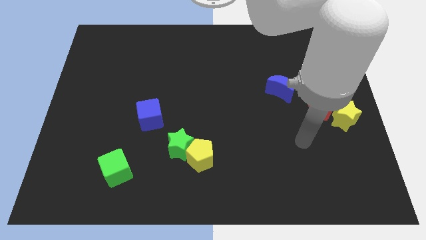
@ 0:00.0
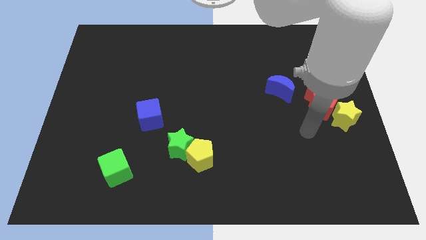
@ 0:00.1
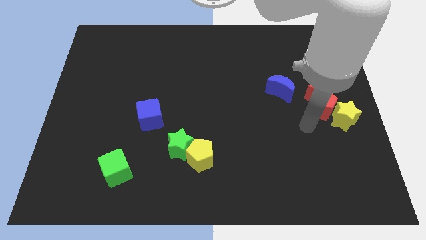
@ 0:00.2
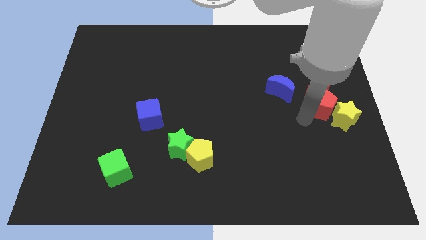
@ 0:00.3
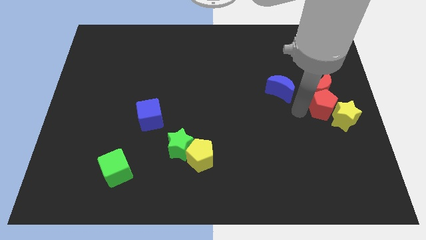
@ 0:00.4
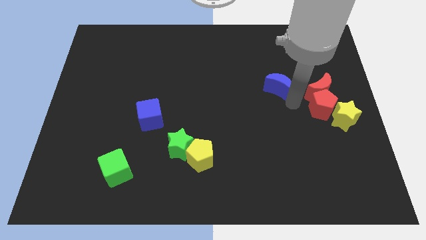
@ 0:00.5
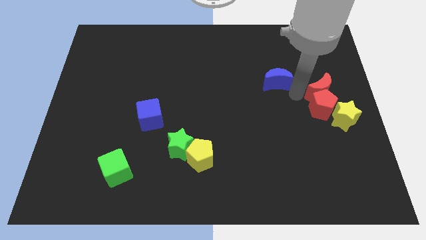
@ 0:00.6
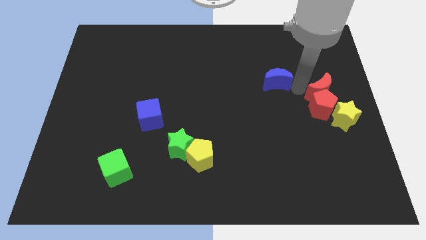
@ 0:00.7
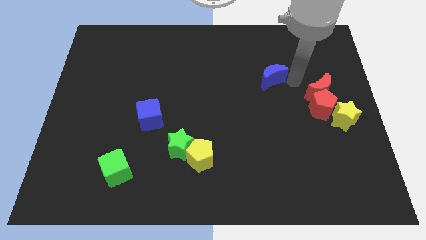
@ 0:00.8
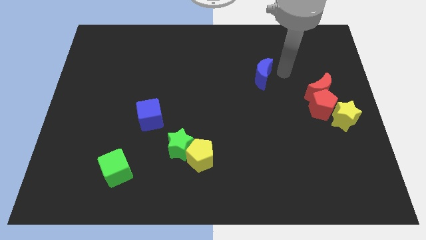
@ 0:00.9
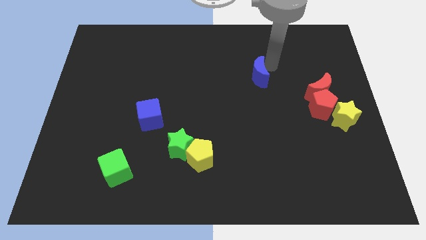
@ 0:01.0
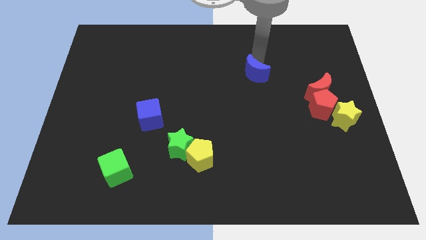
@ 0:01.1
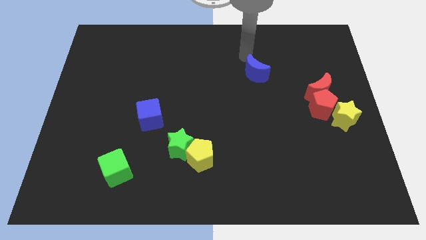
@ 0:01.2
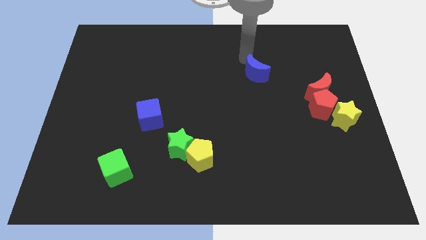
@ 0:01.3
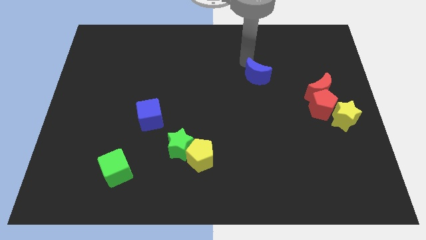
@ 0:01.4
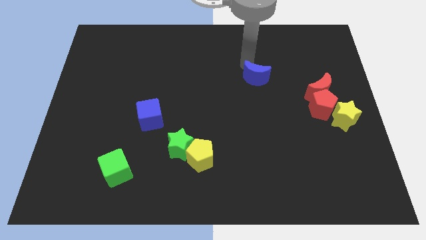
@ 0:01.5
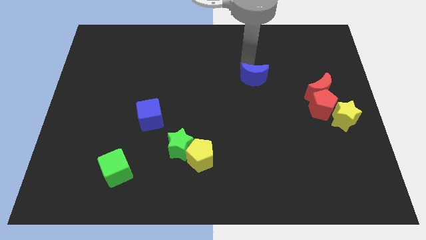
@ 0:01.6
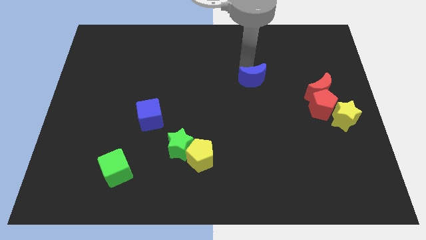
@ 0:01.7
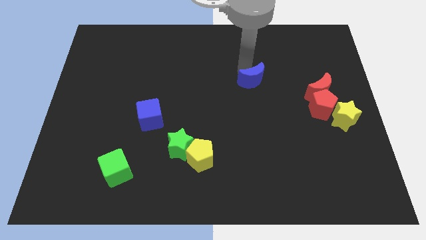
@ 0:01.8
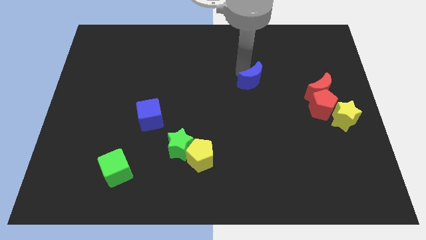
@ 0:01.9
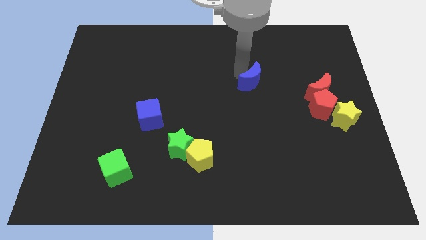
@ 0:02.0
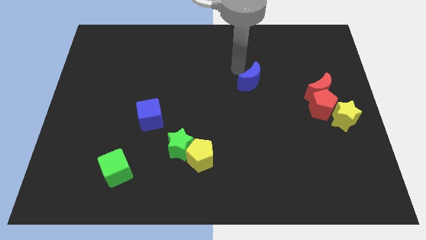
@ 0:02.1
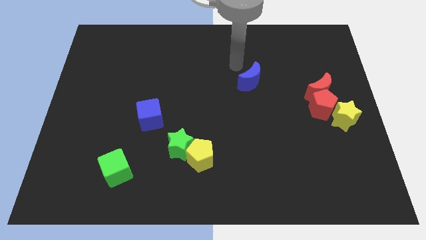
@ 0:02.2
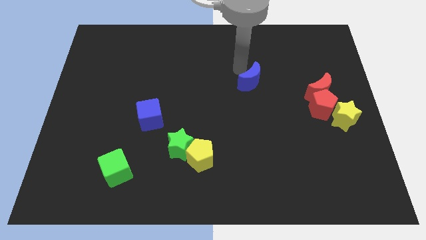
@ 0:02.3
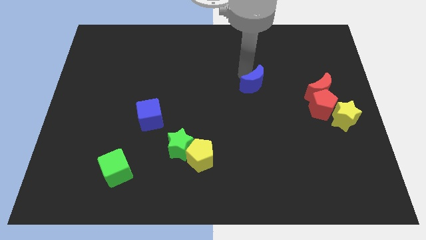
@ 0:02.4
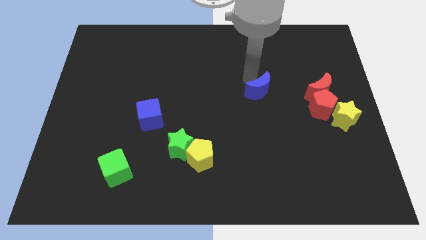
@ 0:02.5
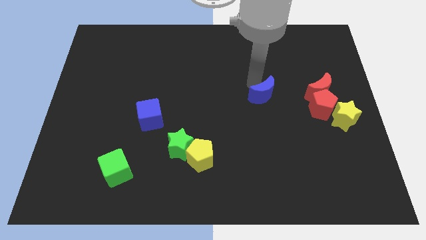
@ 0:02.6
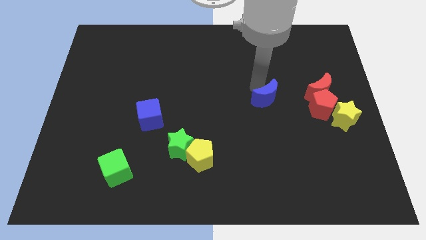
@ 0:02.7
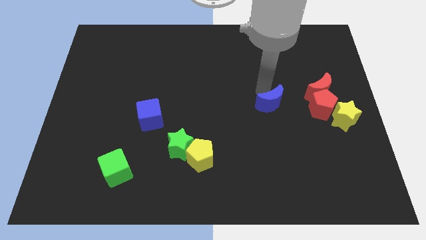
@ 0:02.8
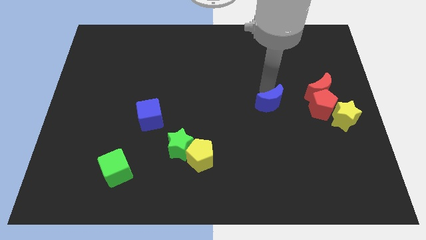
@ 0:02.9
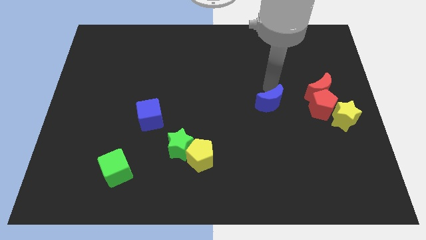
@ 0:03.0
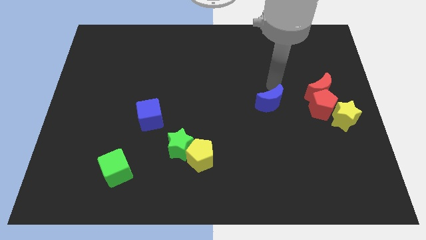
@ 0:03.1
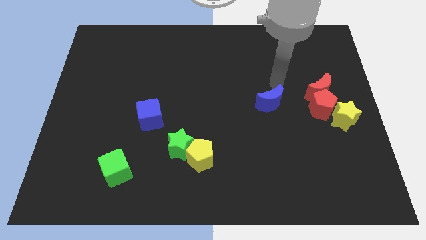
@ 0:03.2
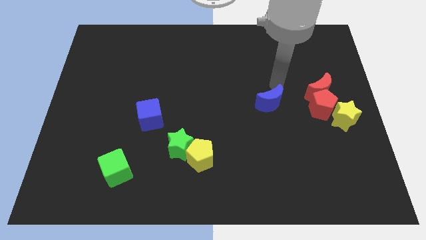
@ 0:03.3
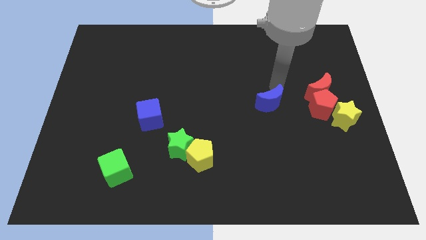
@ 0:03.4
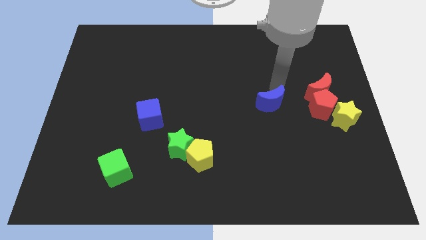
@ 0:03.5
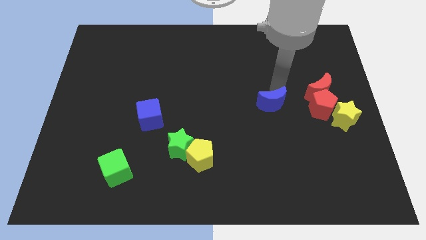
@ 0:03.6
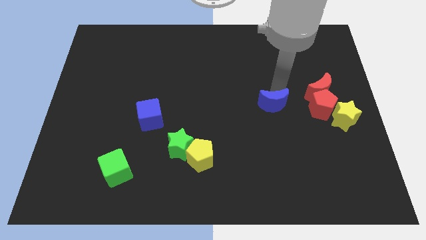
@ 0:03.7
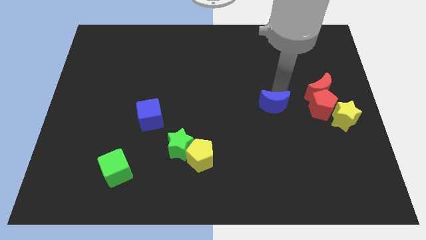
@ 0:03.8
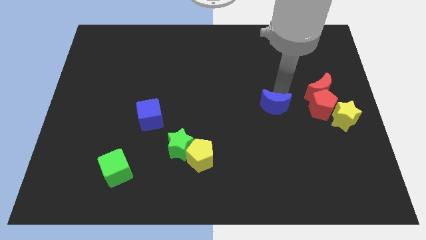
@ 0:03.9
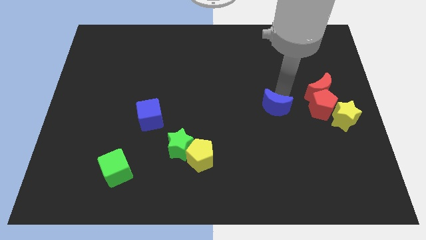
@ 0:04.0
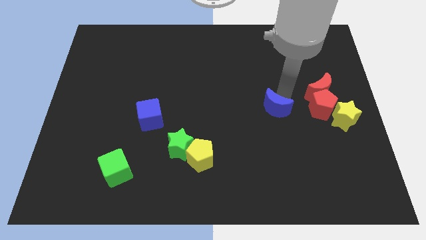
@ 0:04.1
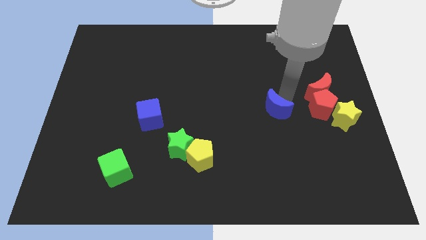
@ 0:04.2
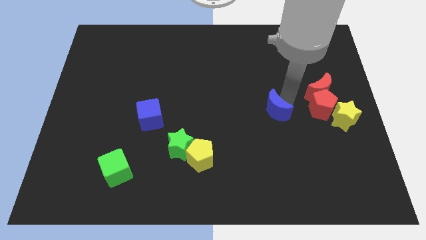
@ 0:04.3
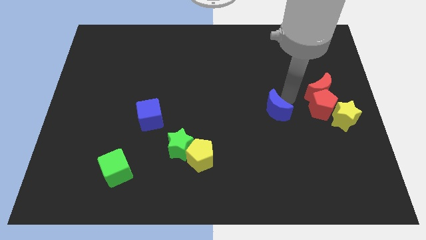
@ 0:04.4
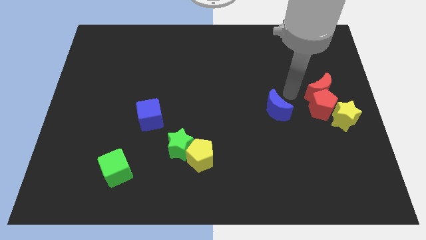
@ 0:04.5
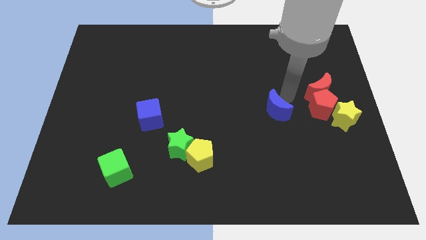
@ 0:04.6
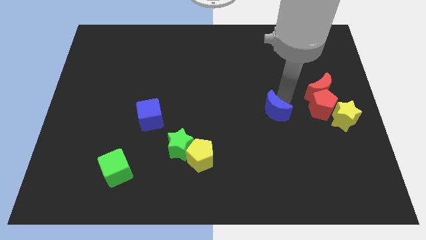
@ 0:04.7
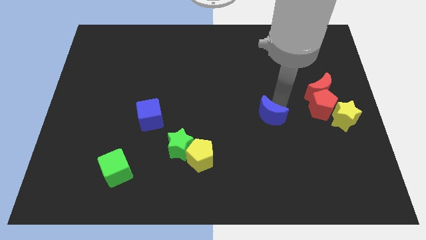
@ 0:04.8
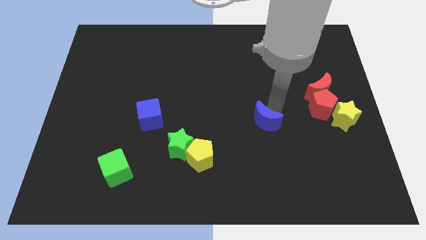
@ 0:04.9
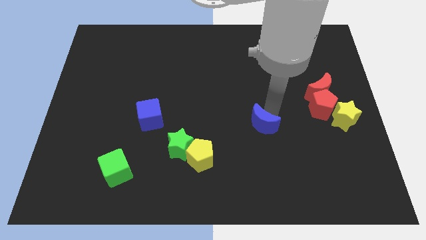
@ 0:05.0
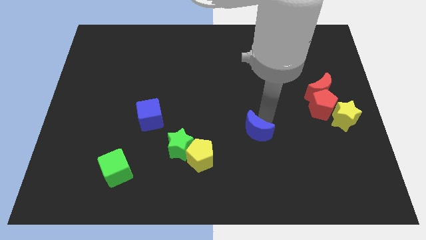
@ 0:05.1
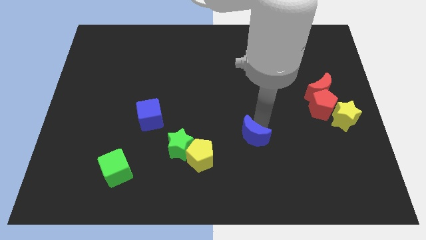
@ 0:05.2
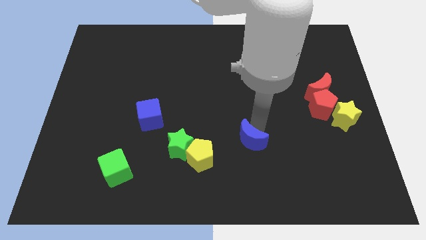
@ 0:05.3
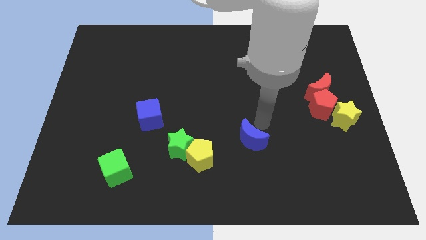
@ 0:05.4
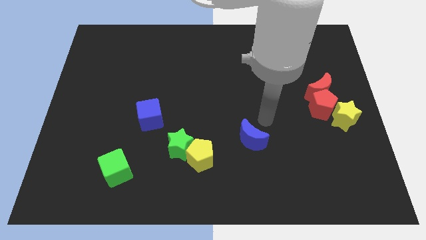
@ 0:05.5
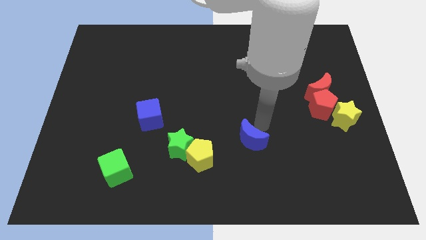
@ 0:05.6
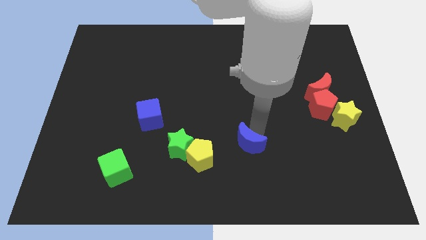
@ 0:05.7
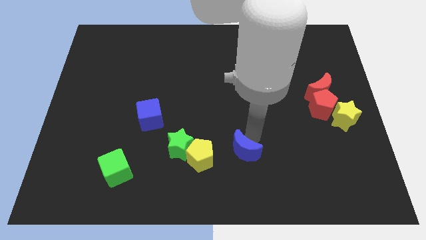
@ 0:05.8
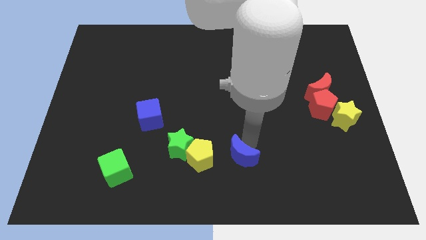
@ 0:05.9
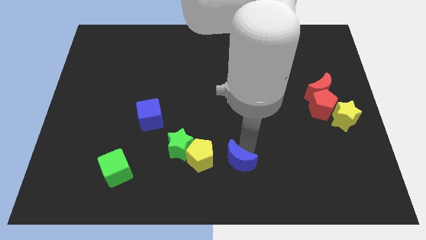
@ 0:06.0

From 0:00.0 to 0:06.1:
put the blue moon to the bottom

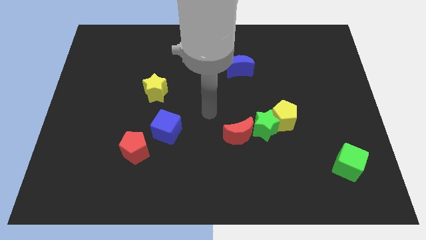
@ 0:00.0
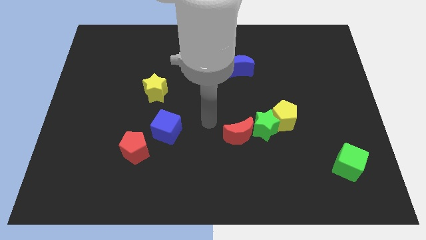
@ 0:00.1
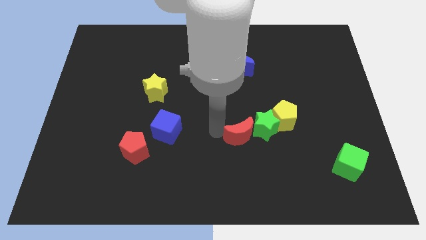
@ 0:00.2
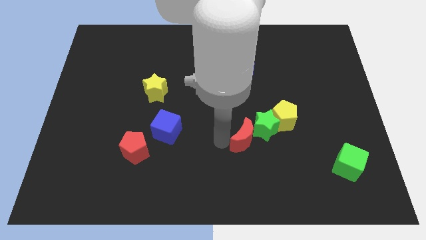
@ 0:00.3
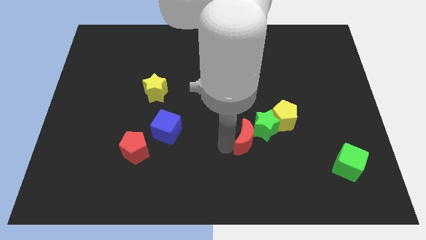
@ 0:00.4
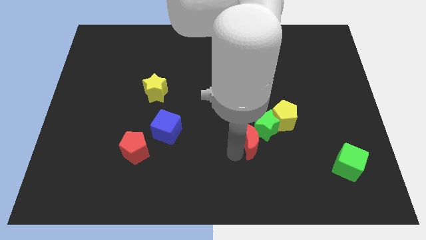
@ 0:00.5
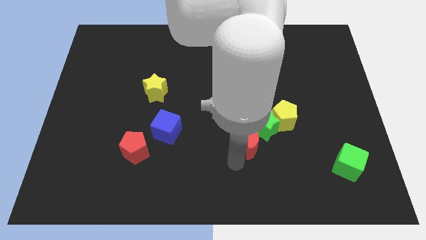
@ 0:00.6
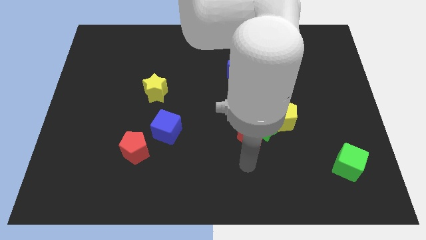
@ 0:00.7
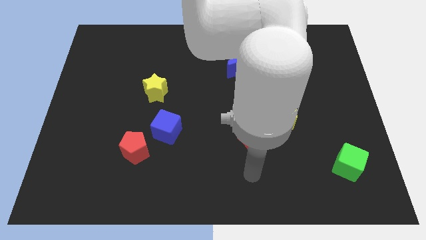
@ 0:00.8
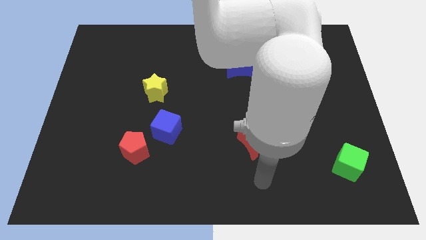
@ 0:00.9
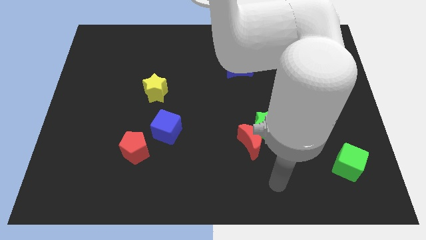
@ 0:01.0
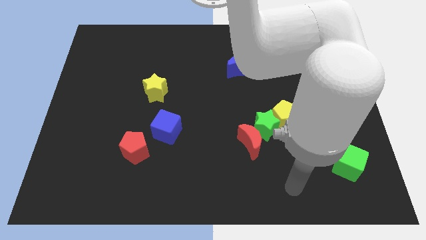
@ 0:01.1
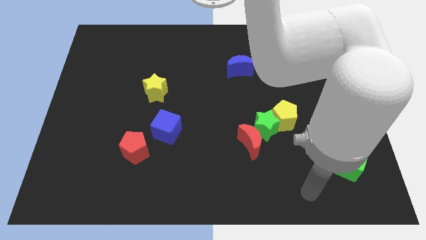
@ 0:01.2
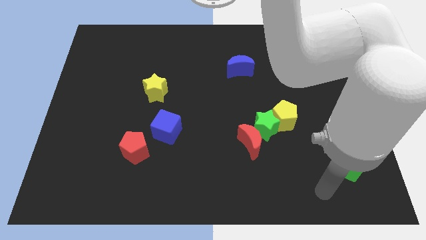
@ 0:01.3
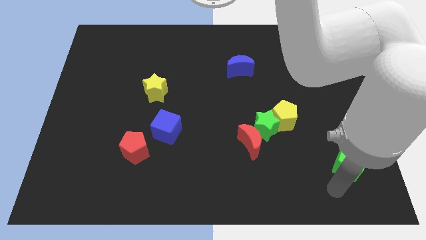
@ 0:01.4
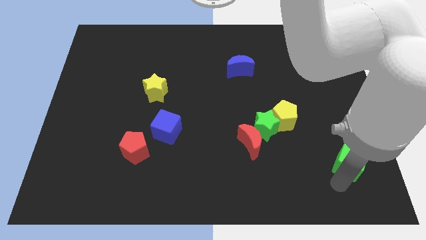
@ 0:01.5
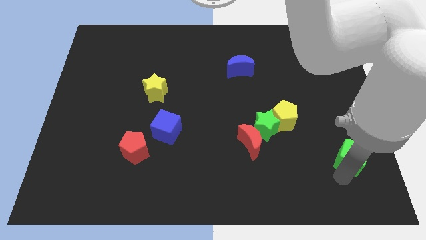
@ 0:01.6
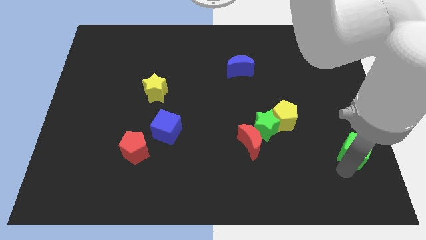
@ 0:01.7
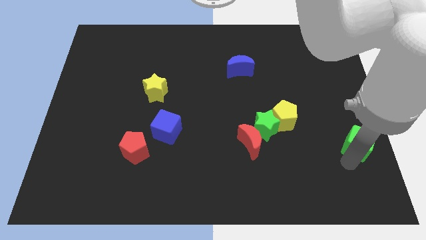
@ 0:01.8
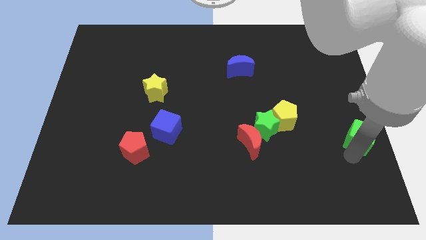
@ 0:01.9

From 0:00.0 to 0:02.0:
move the green cube to the right side
